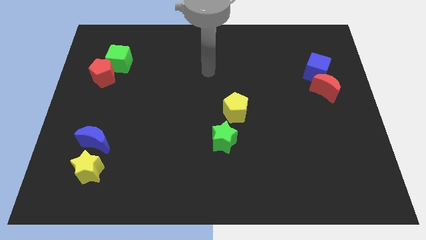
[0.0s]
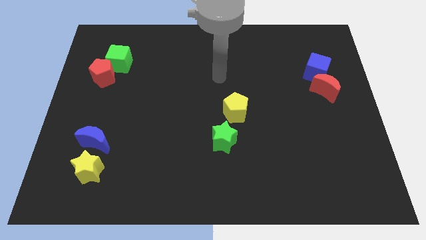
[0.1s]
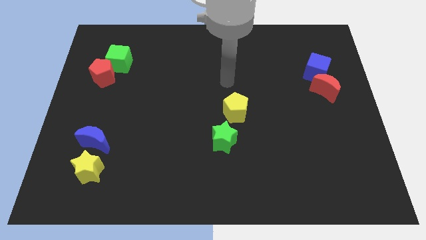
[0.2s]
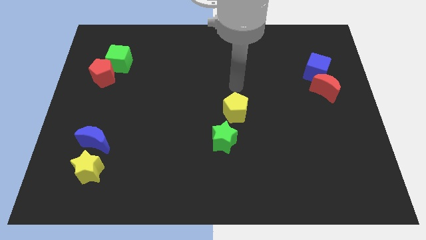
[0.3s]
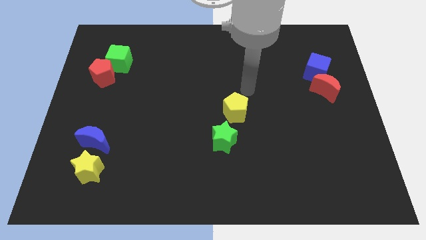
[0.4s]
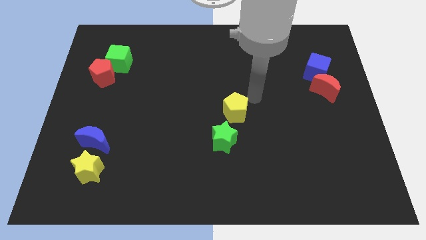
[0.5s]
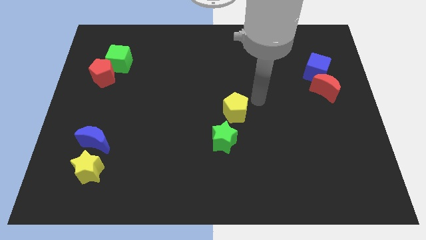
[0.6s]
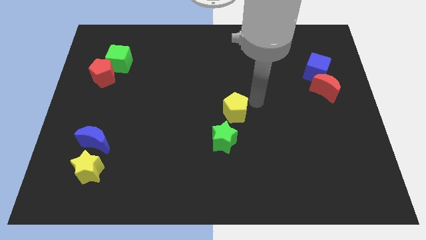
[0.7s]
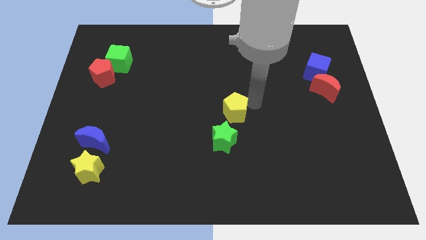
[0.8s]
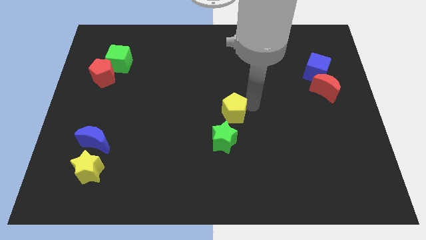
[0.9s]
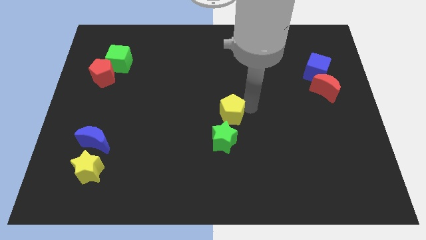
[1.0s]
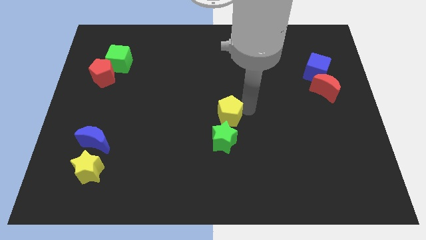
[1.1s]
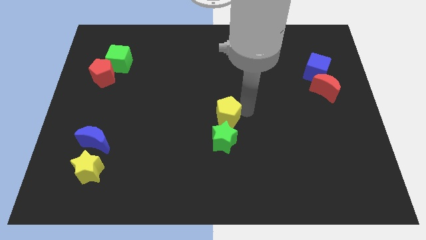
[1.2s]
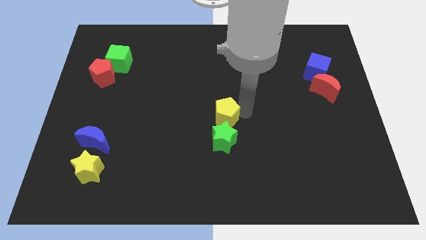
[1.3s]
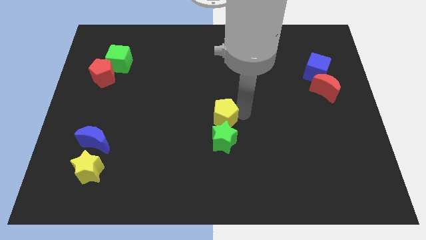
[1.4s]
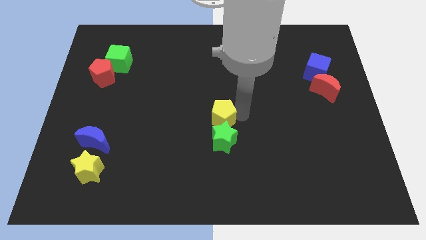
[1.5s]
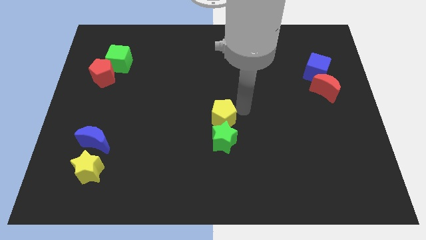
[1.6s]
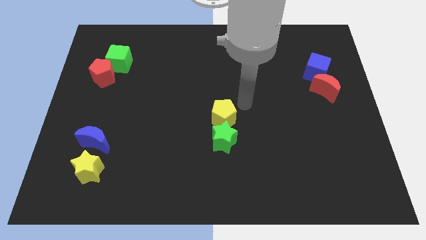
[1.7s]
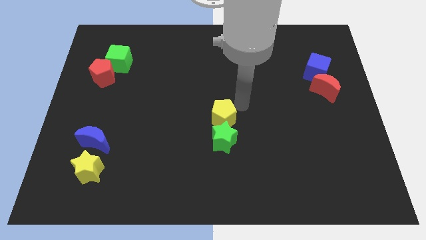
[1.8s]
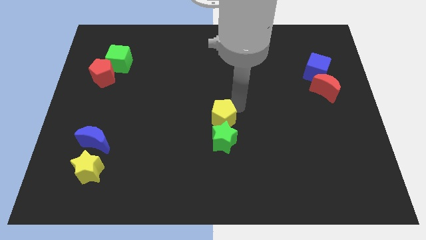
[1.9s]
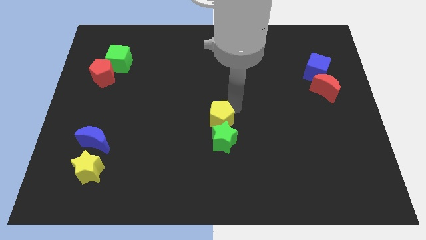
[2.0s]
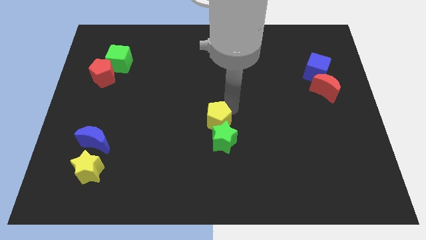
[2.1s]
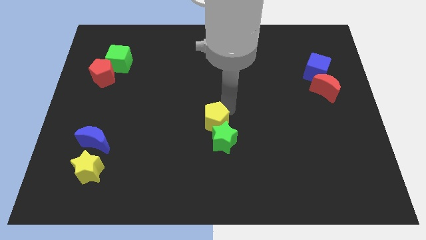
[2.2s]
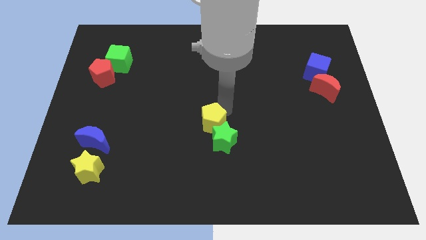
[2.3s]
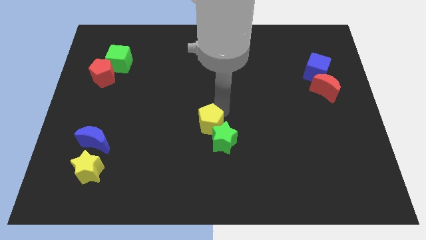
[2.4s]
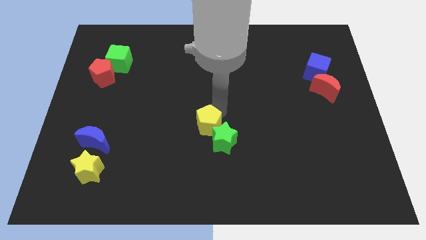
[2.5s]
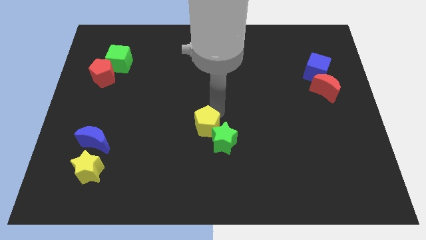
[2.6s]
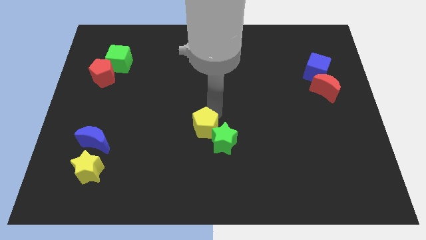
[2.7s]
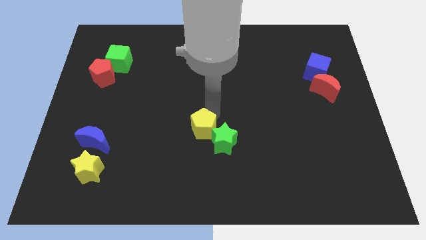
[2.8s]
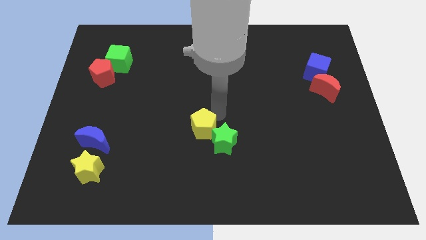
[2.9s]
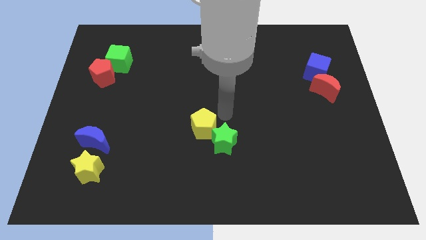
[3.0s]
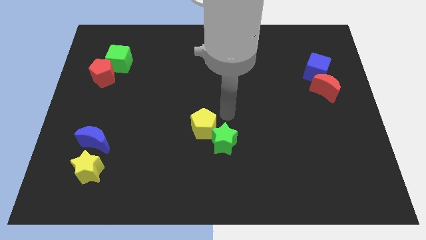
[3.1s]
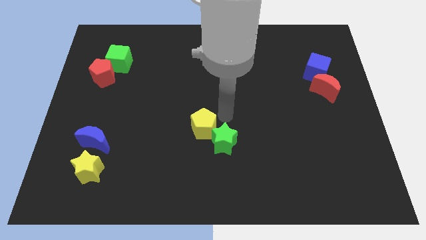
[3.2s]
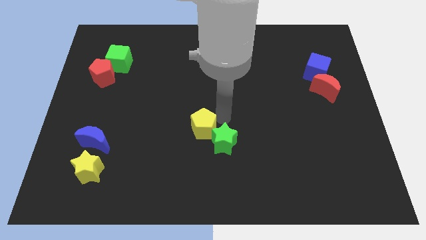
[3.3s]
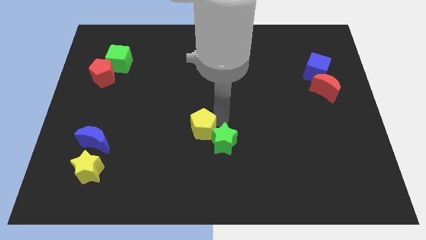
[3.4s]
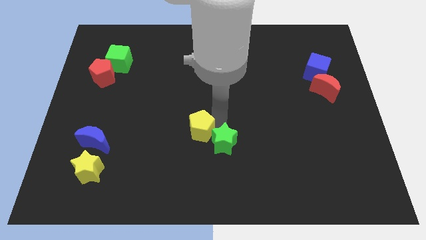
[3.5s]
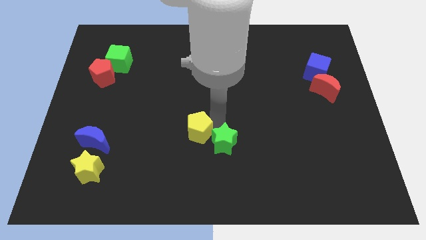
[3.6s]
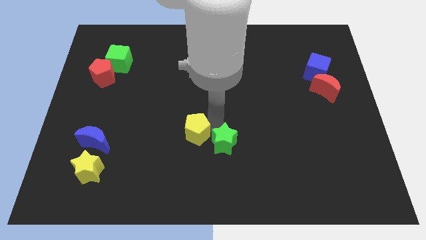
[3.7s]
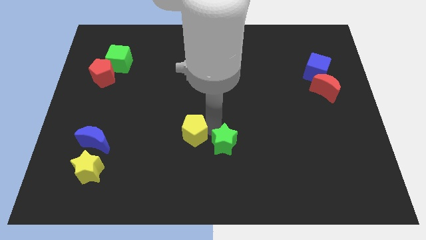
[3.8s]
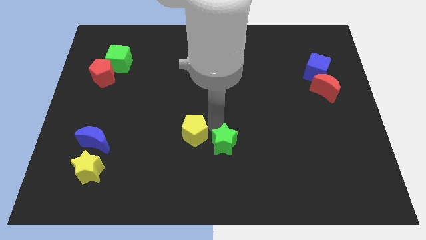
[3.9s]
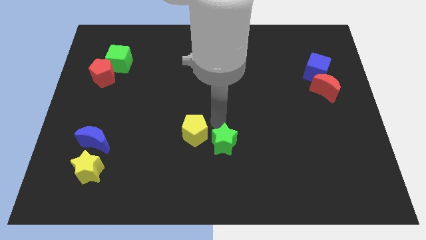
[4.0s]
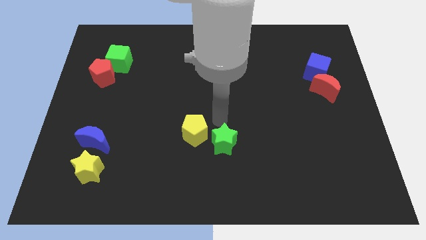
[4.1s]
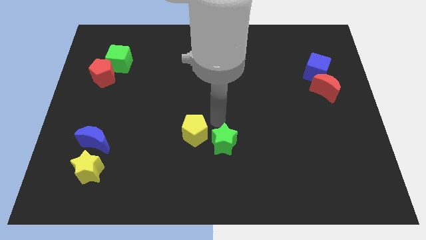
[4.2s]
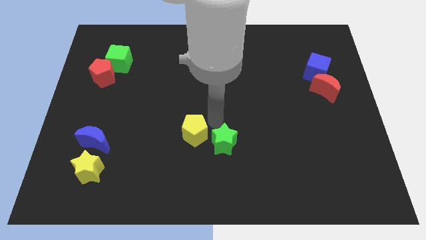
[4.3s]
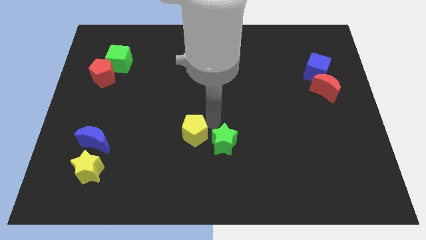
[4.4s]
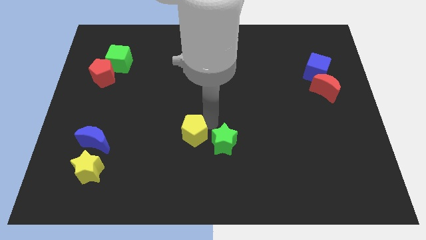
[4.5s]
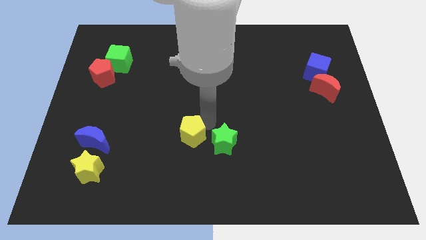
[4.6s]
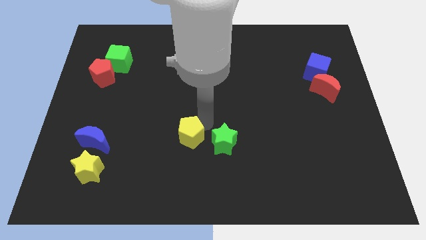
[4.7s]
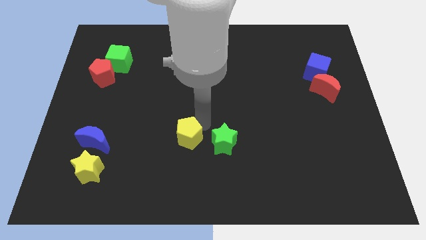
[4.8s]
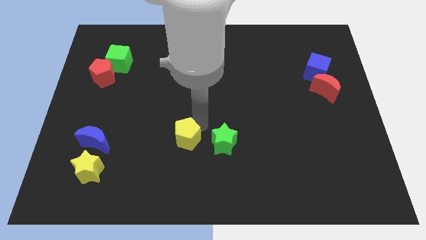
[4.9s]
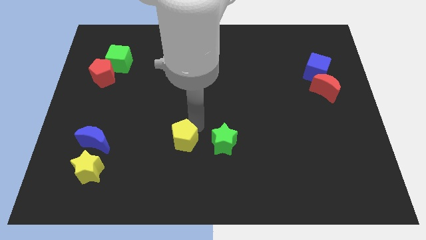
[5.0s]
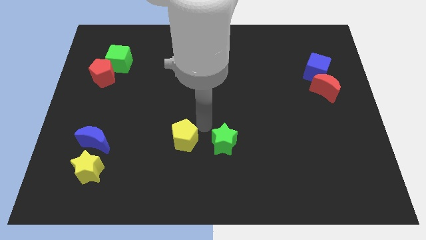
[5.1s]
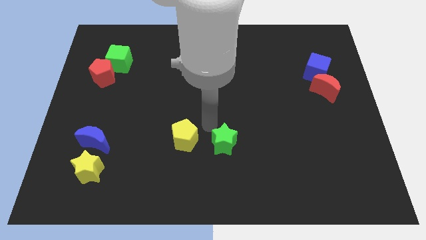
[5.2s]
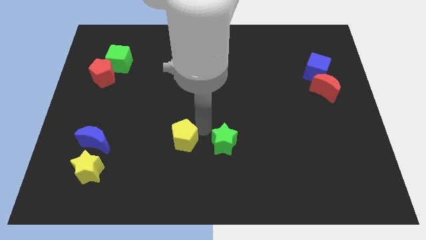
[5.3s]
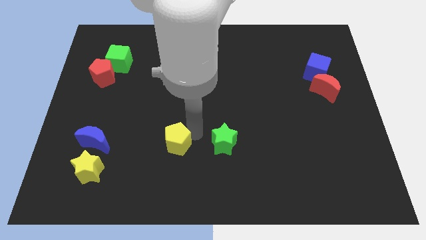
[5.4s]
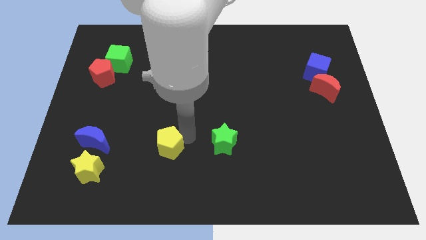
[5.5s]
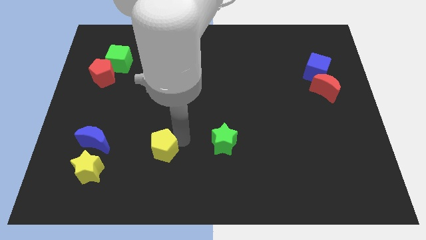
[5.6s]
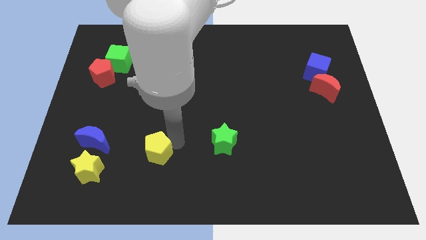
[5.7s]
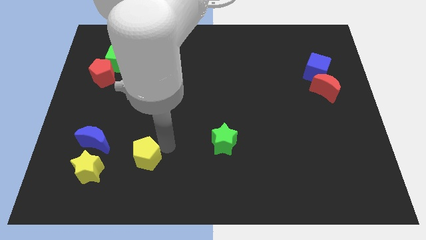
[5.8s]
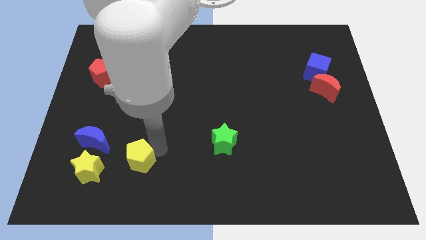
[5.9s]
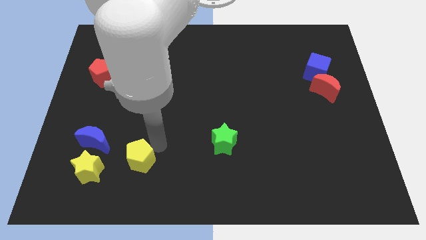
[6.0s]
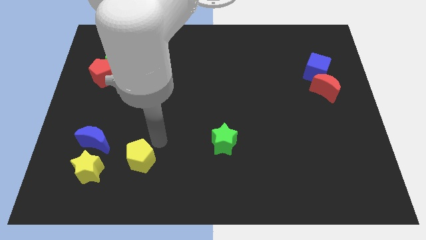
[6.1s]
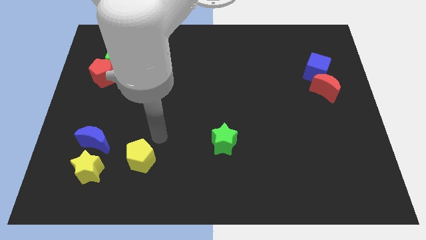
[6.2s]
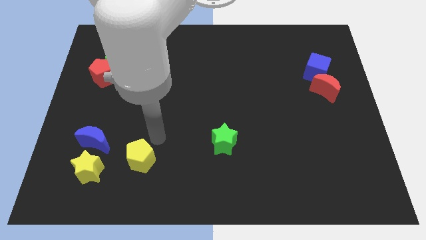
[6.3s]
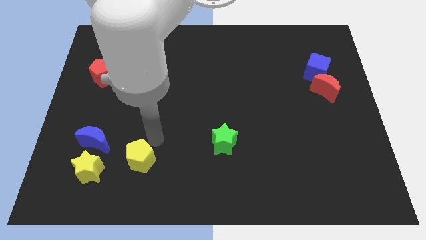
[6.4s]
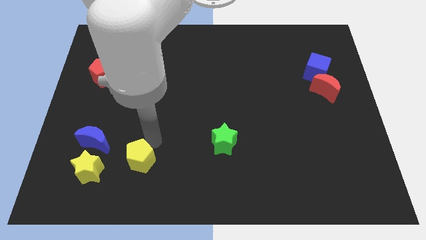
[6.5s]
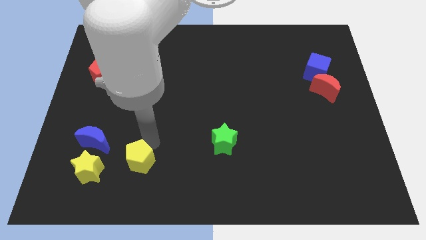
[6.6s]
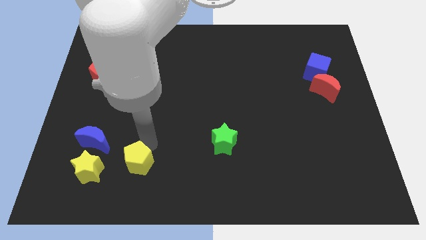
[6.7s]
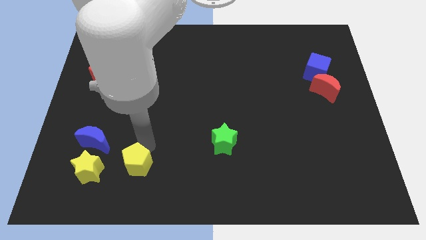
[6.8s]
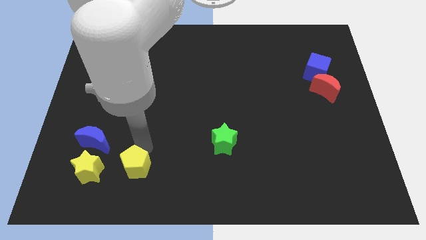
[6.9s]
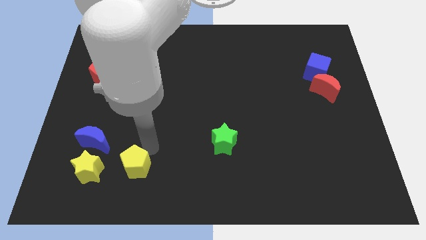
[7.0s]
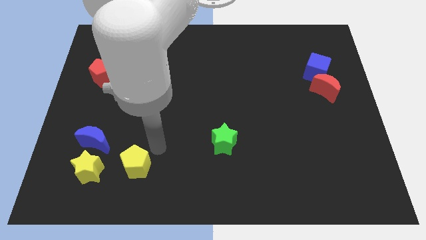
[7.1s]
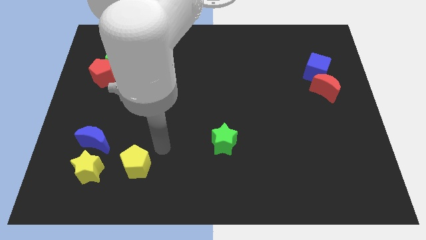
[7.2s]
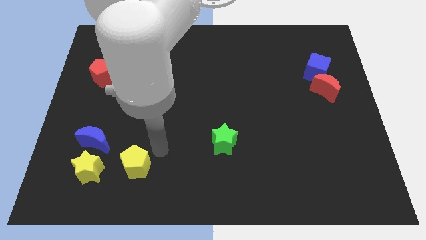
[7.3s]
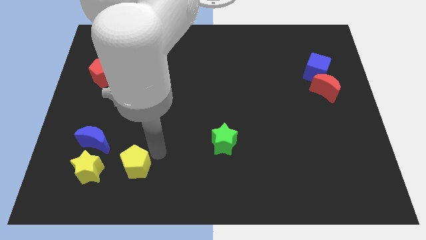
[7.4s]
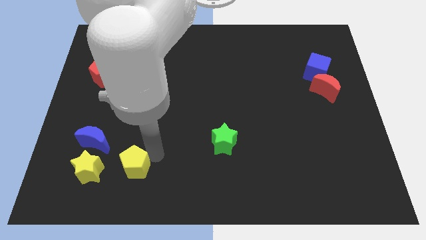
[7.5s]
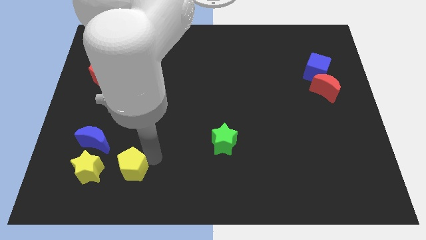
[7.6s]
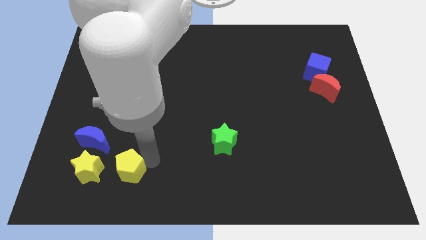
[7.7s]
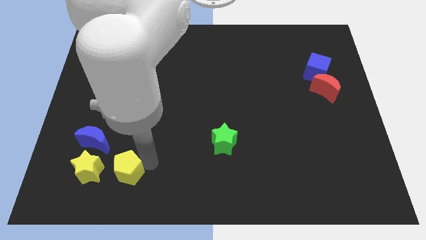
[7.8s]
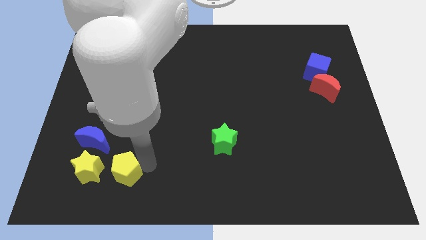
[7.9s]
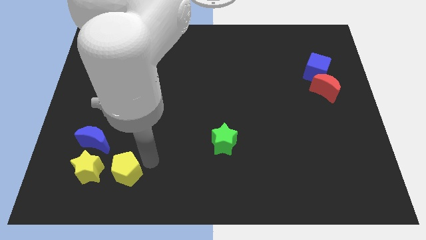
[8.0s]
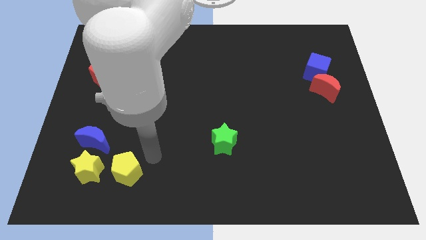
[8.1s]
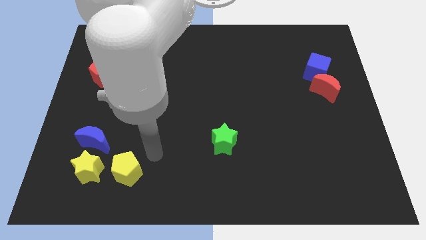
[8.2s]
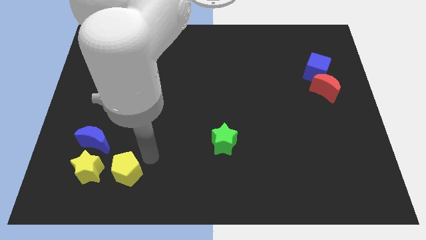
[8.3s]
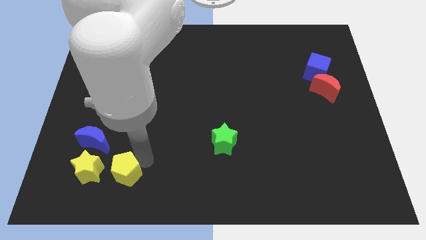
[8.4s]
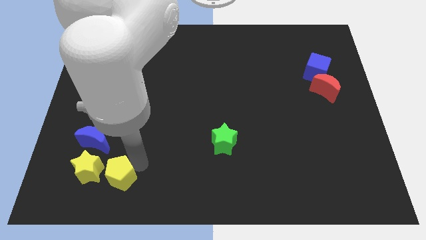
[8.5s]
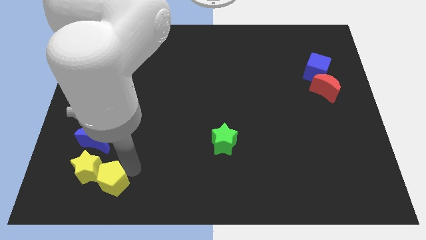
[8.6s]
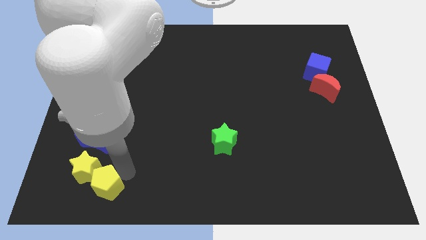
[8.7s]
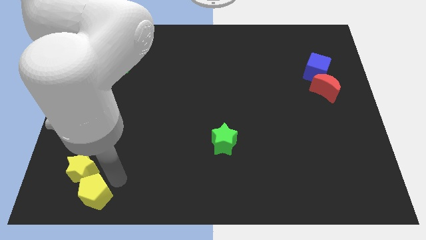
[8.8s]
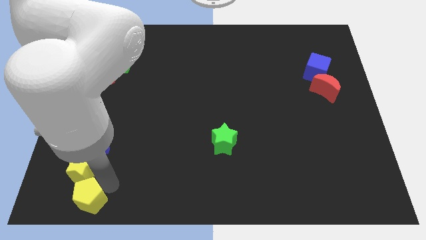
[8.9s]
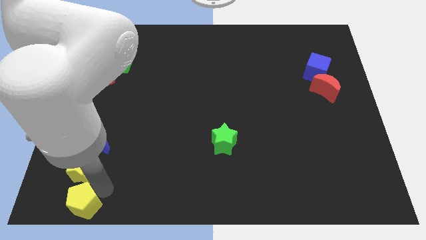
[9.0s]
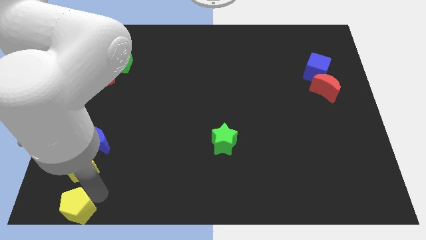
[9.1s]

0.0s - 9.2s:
put the yellow pentagon to the lower left corner
